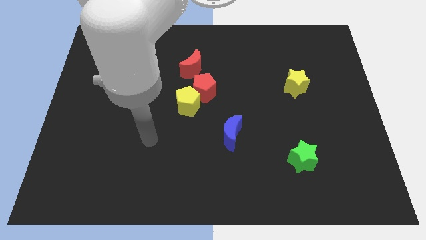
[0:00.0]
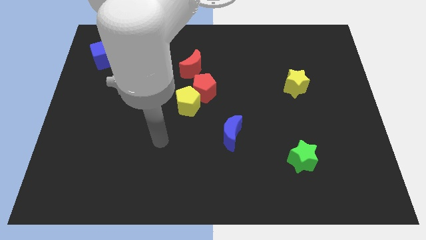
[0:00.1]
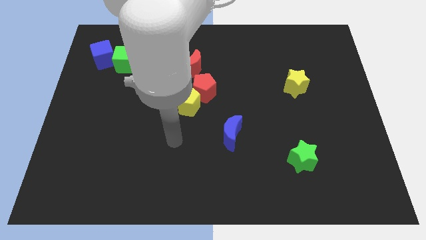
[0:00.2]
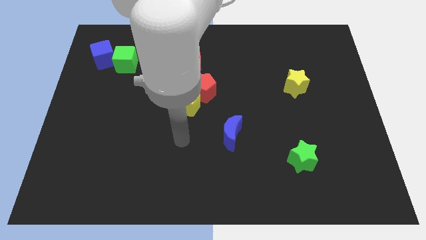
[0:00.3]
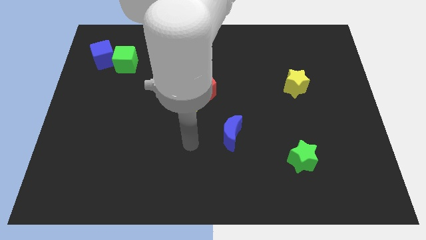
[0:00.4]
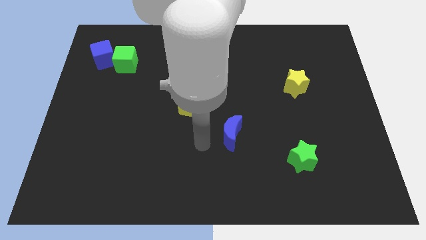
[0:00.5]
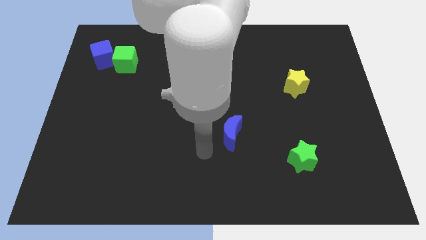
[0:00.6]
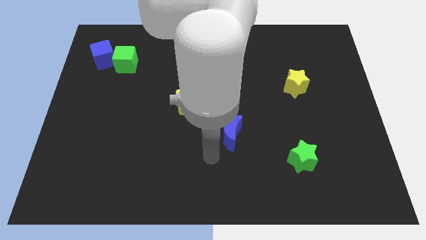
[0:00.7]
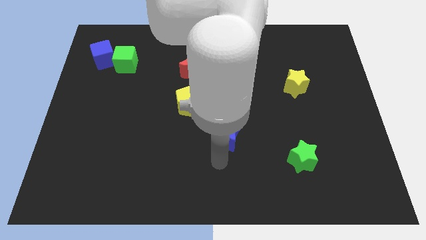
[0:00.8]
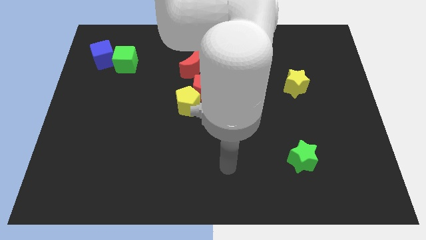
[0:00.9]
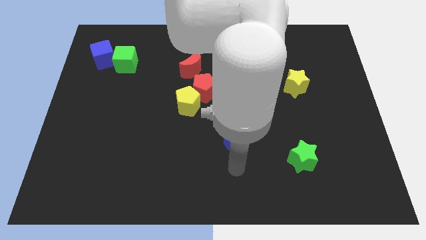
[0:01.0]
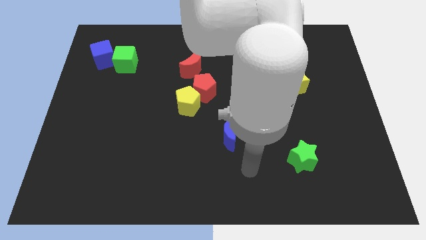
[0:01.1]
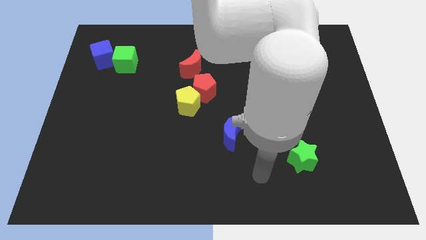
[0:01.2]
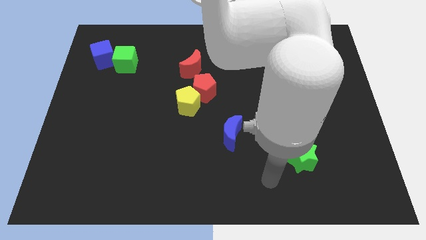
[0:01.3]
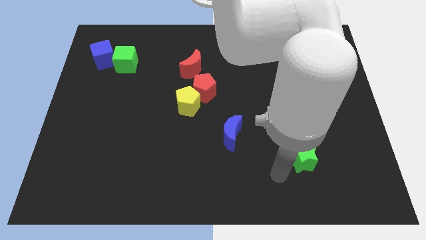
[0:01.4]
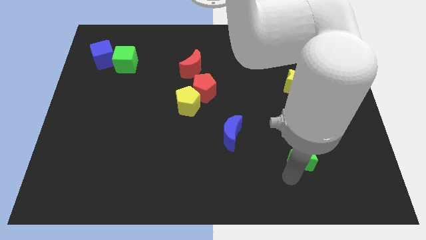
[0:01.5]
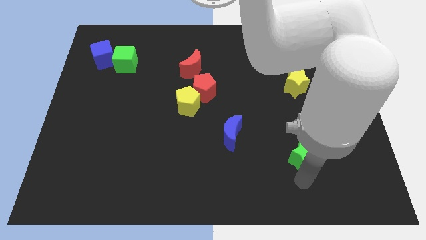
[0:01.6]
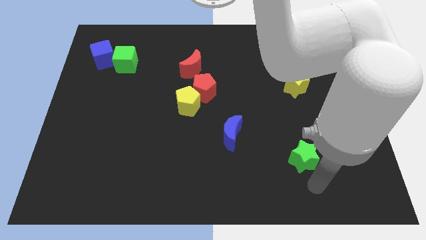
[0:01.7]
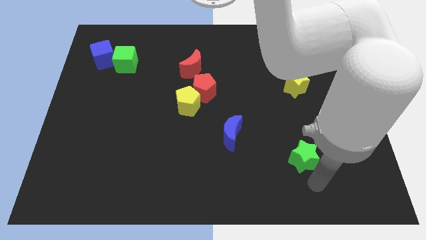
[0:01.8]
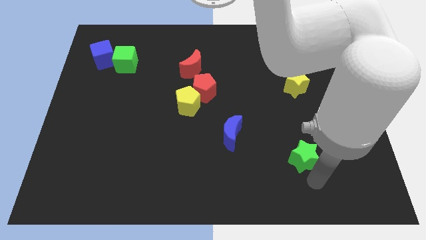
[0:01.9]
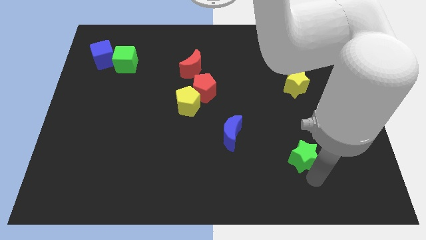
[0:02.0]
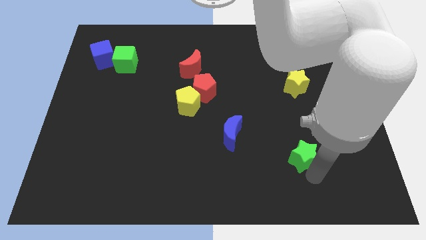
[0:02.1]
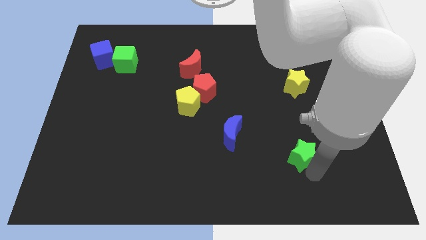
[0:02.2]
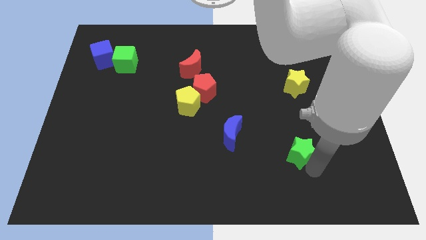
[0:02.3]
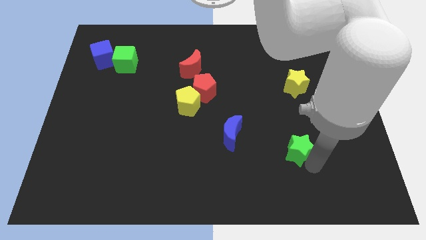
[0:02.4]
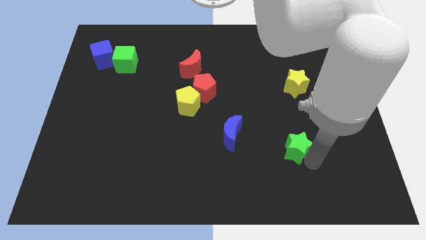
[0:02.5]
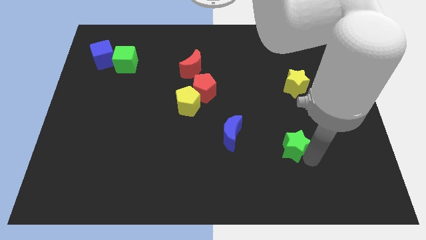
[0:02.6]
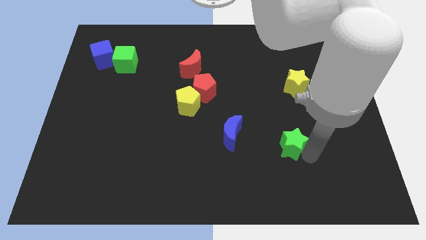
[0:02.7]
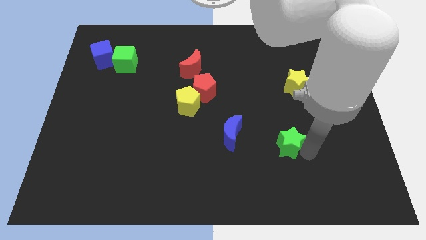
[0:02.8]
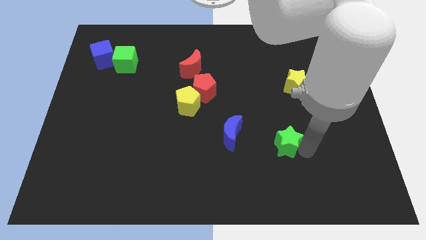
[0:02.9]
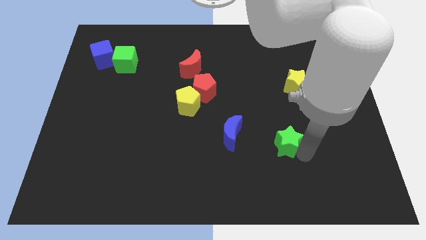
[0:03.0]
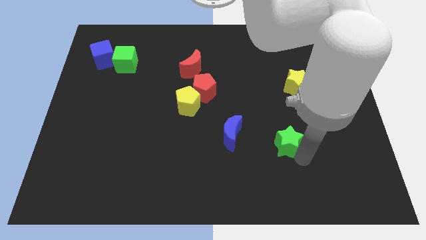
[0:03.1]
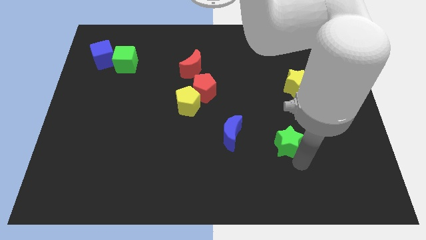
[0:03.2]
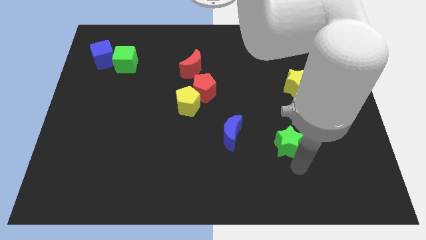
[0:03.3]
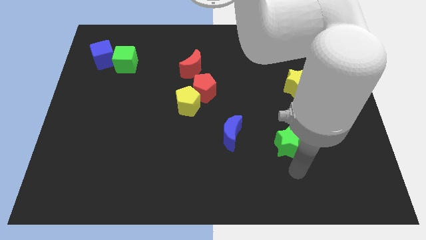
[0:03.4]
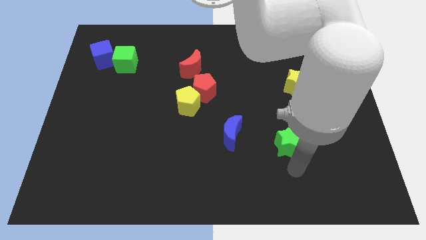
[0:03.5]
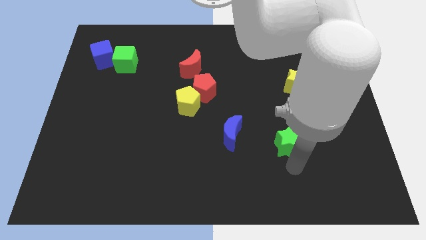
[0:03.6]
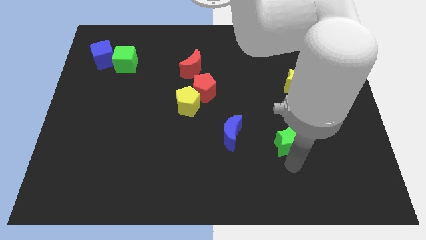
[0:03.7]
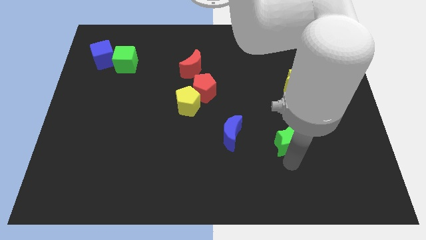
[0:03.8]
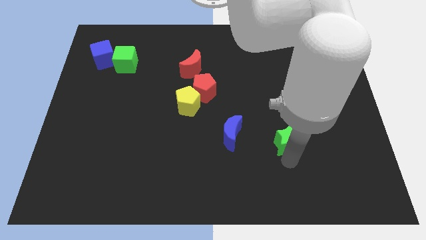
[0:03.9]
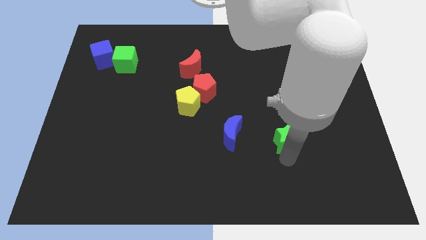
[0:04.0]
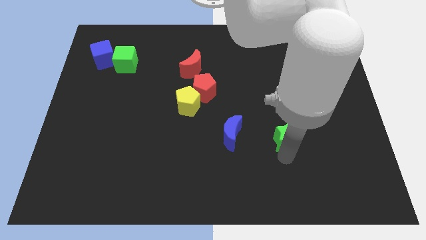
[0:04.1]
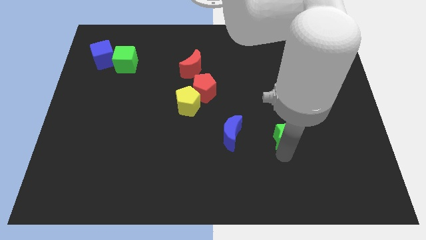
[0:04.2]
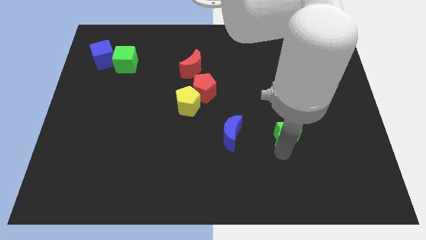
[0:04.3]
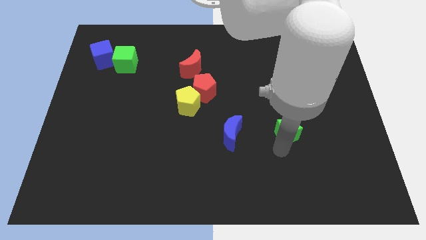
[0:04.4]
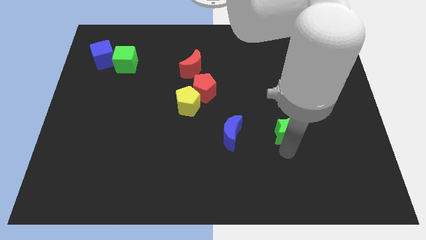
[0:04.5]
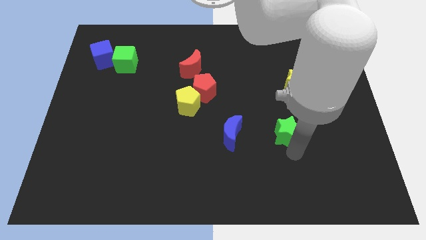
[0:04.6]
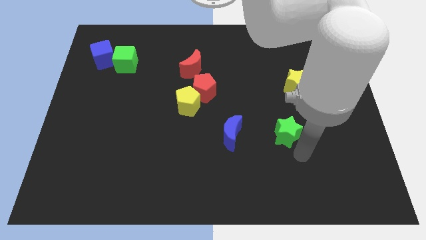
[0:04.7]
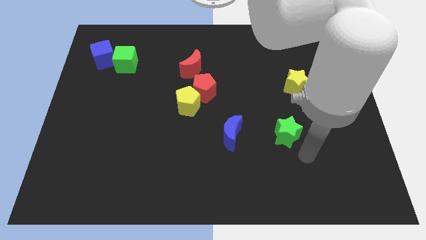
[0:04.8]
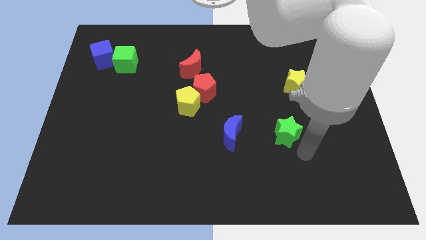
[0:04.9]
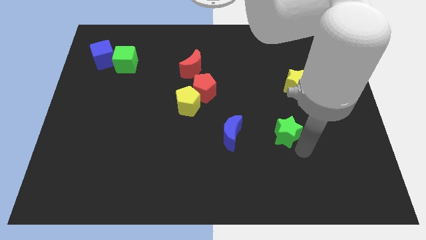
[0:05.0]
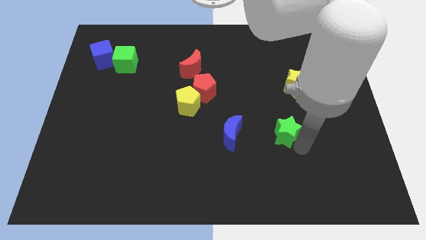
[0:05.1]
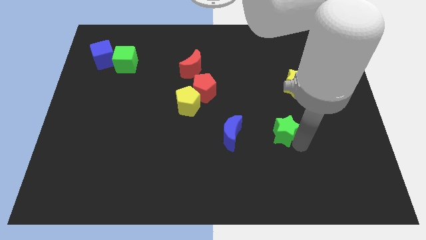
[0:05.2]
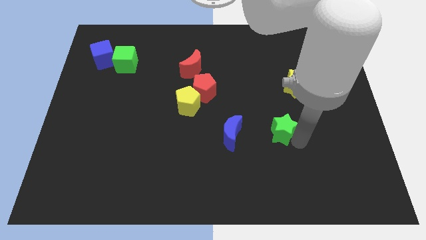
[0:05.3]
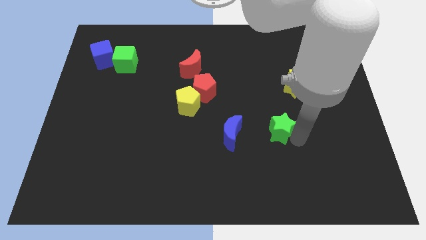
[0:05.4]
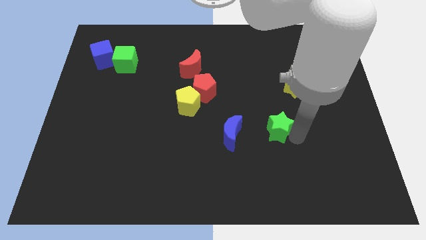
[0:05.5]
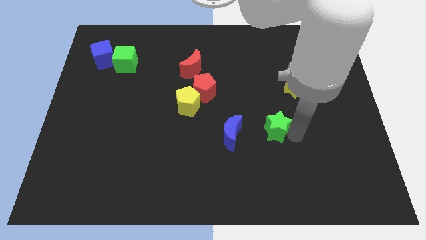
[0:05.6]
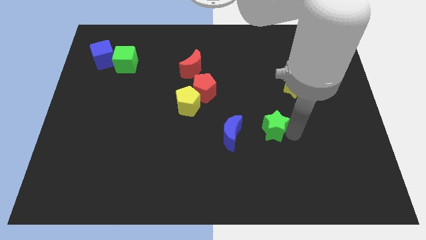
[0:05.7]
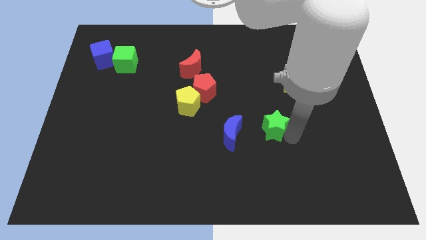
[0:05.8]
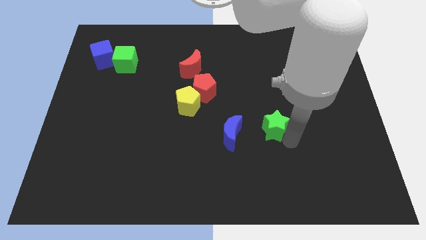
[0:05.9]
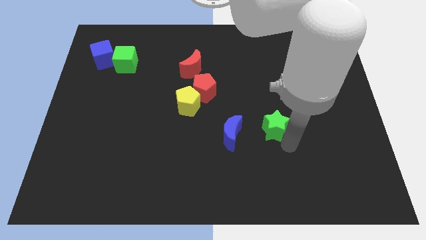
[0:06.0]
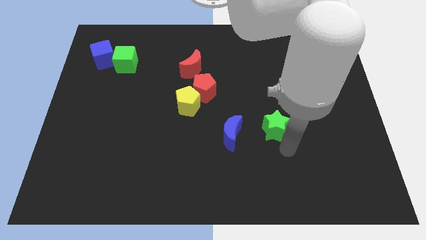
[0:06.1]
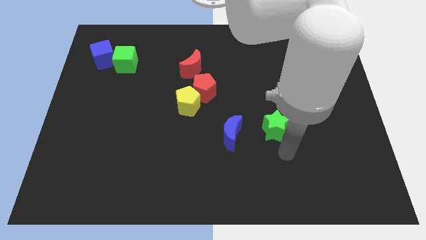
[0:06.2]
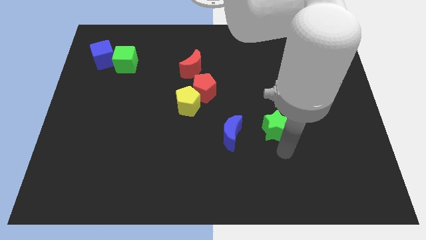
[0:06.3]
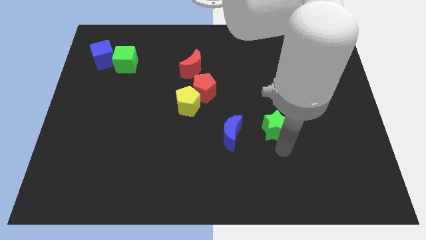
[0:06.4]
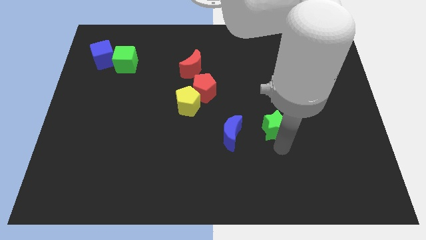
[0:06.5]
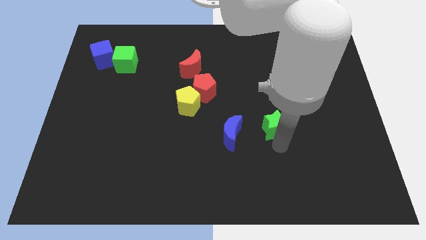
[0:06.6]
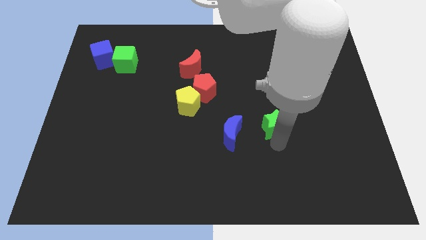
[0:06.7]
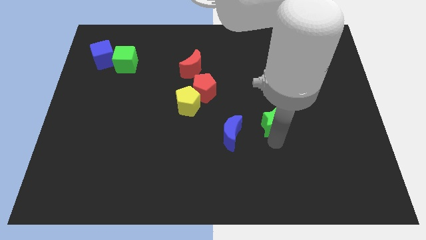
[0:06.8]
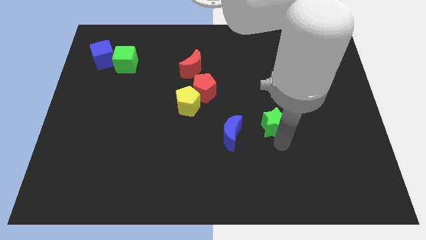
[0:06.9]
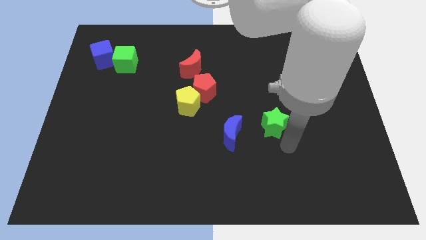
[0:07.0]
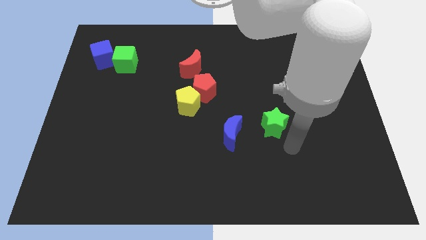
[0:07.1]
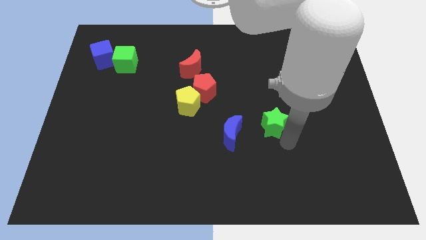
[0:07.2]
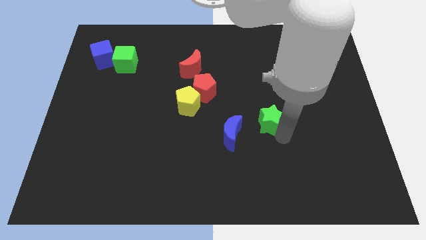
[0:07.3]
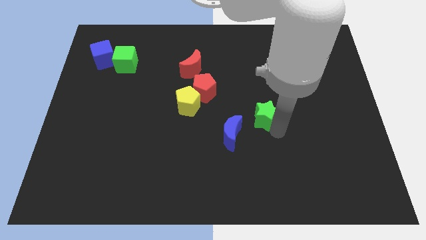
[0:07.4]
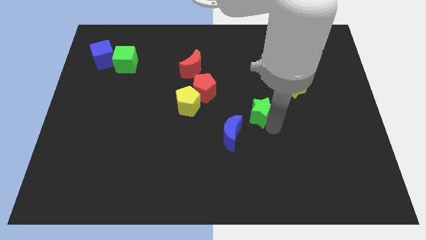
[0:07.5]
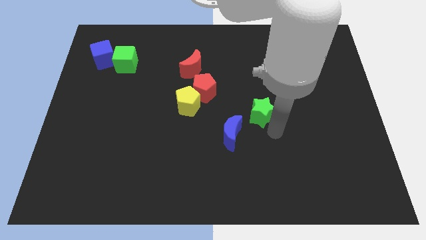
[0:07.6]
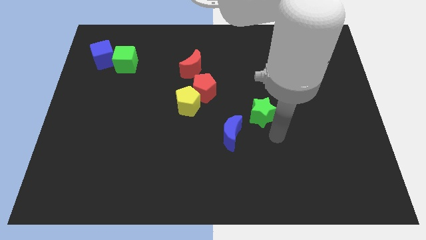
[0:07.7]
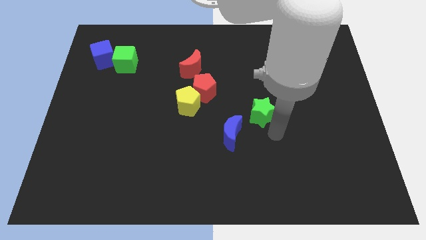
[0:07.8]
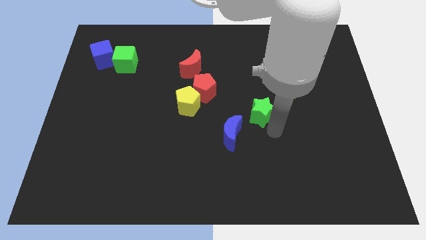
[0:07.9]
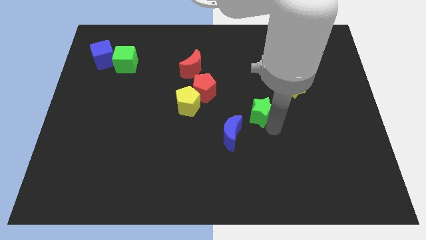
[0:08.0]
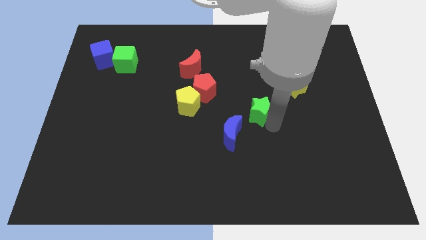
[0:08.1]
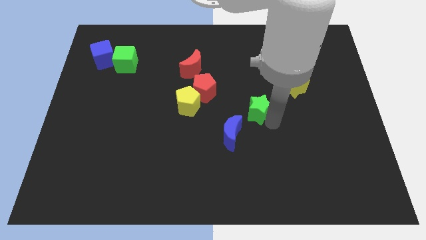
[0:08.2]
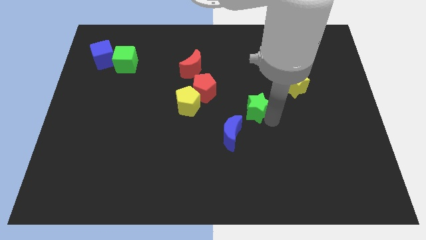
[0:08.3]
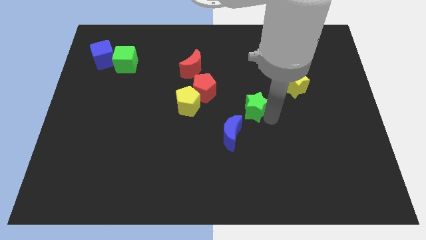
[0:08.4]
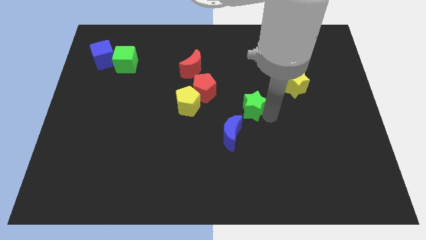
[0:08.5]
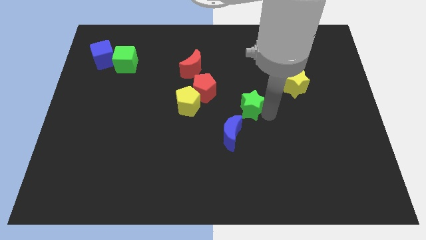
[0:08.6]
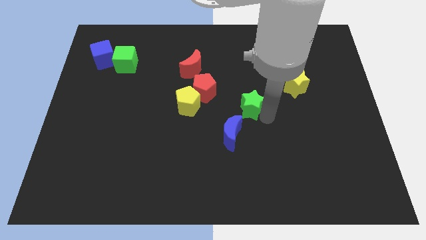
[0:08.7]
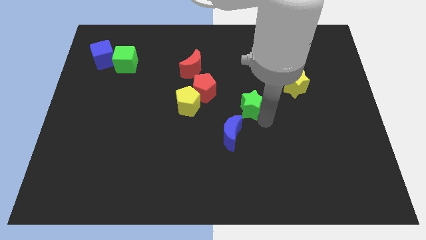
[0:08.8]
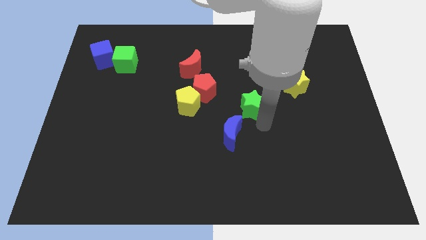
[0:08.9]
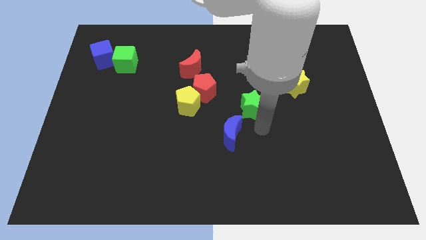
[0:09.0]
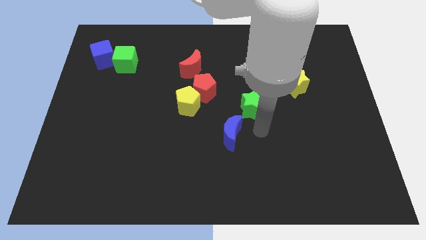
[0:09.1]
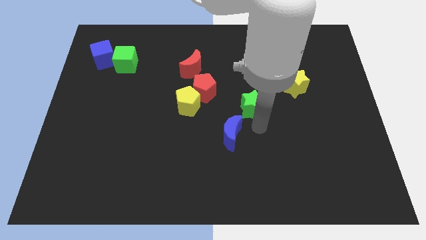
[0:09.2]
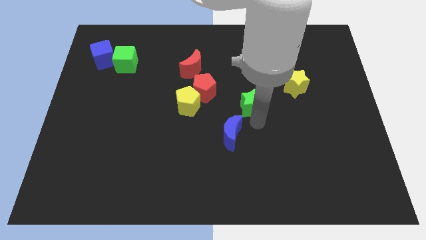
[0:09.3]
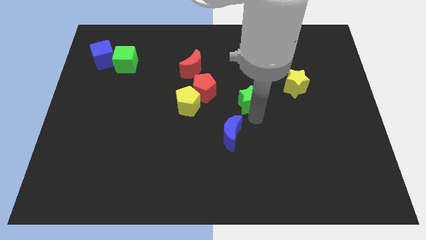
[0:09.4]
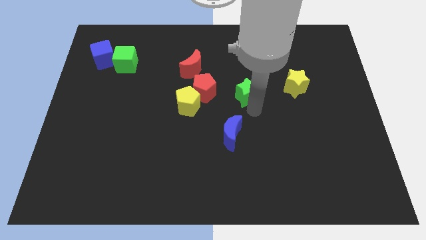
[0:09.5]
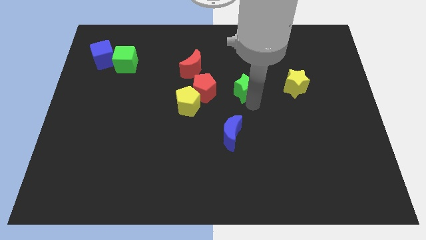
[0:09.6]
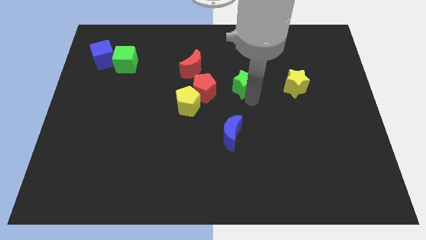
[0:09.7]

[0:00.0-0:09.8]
slide the green star up and to the left diagonally
